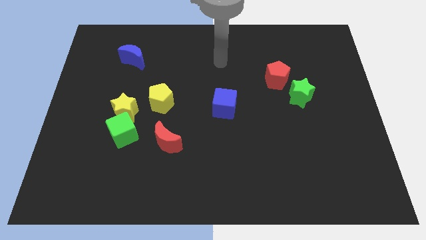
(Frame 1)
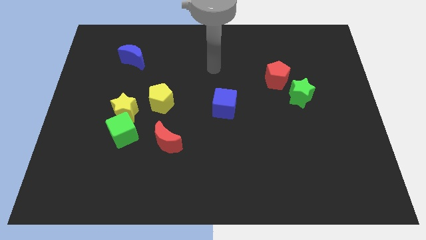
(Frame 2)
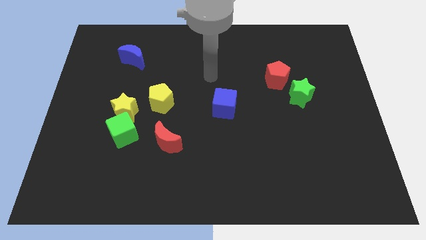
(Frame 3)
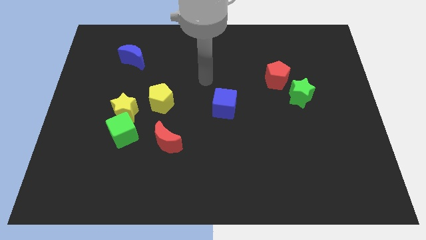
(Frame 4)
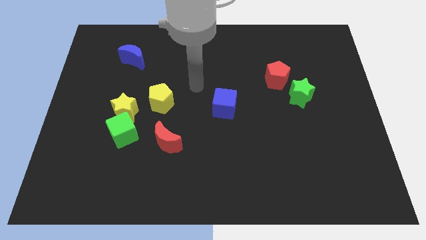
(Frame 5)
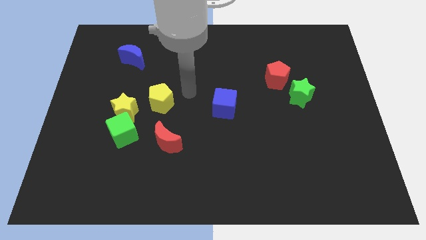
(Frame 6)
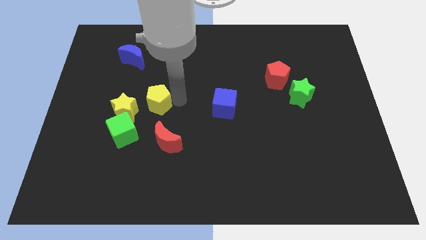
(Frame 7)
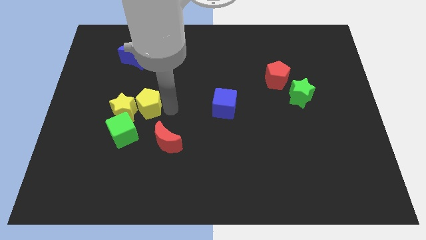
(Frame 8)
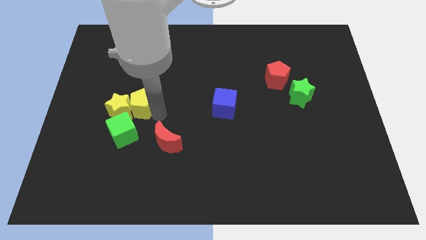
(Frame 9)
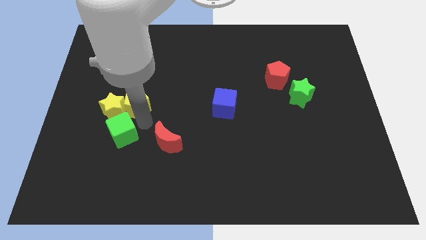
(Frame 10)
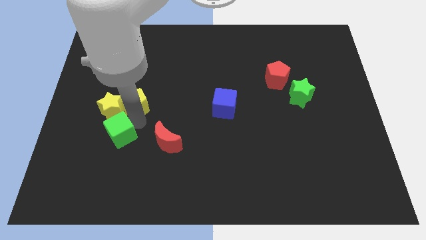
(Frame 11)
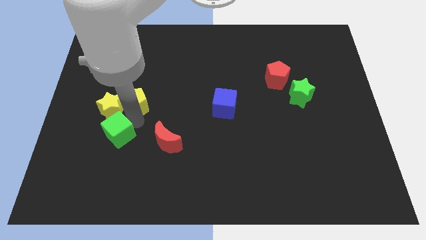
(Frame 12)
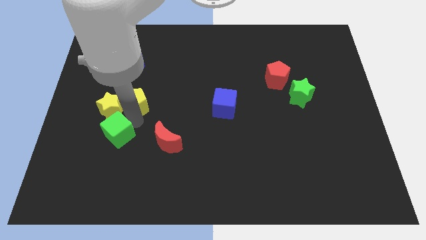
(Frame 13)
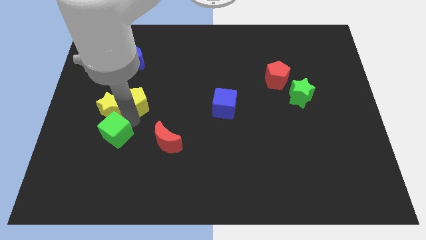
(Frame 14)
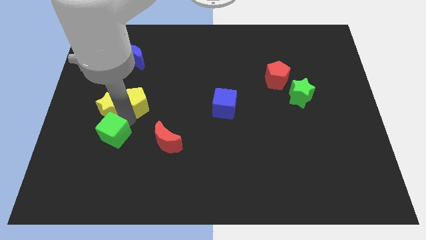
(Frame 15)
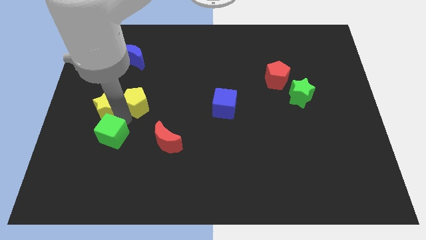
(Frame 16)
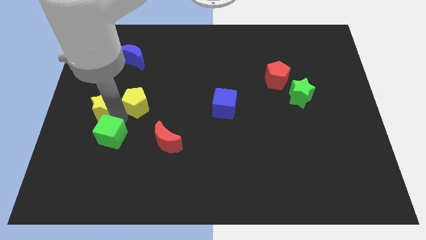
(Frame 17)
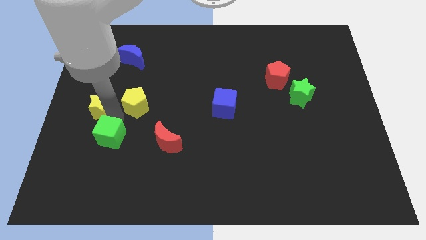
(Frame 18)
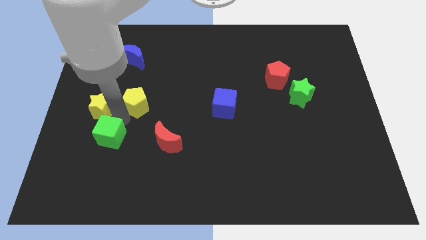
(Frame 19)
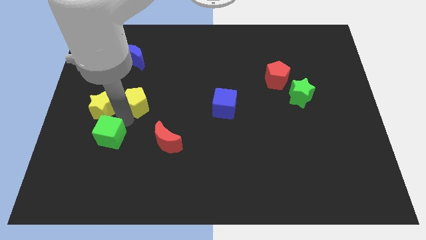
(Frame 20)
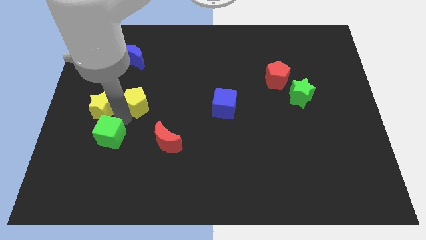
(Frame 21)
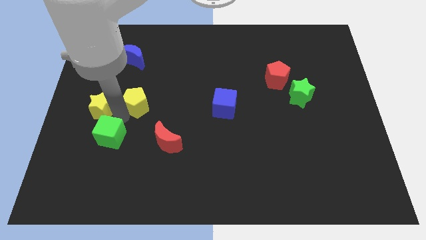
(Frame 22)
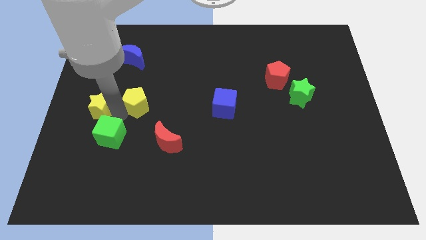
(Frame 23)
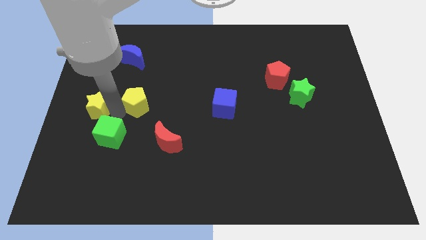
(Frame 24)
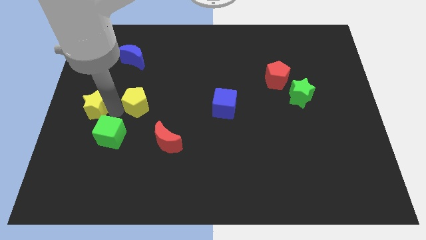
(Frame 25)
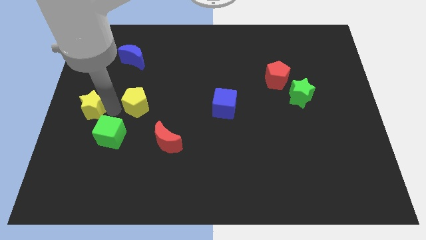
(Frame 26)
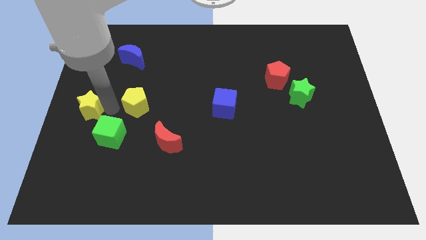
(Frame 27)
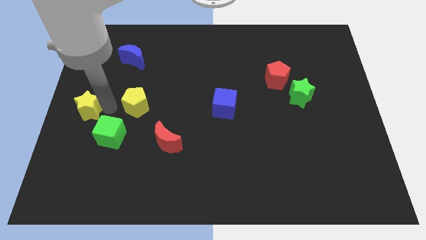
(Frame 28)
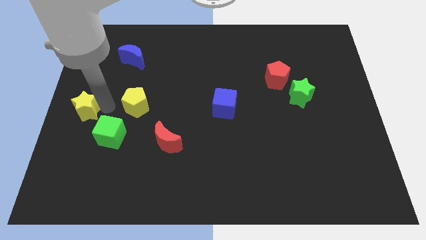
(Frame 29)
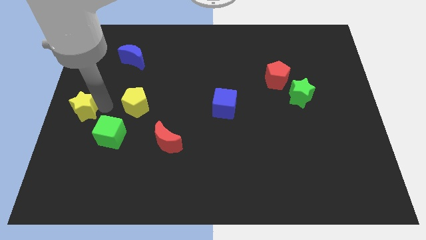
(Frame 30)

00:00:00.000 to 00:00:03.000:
separate the yellow star from the green cube and yellow pentagon

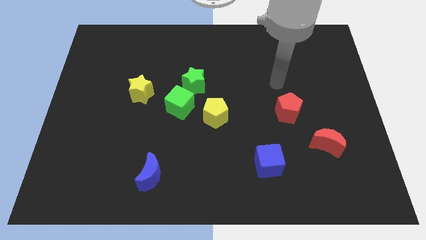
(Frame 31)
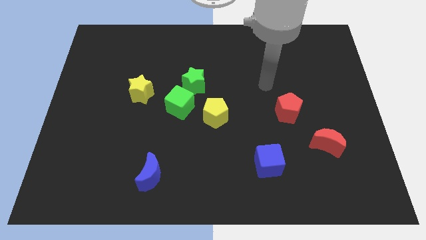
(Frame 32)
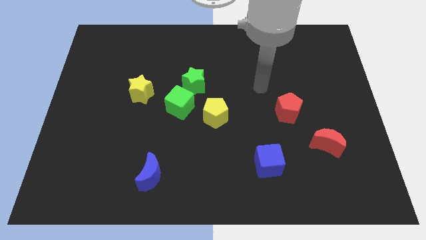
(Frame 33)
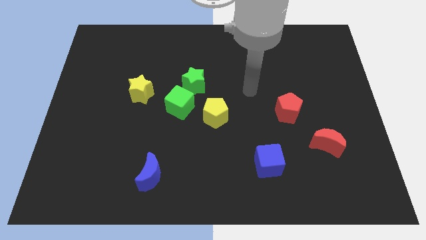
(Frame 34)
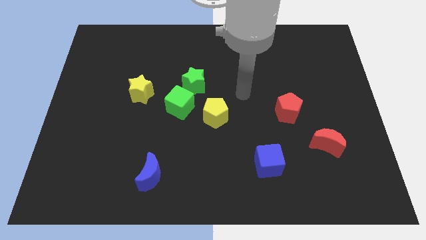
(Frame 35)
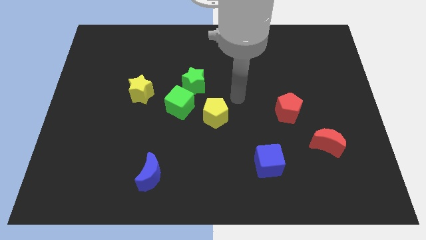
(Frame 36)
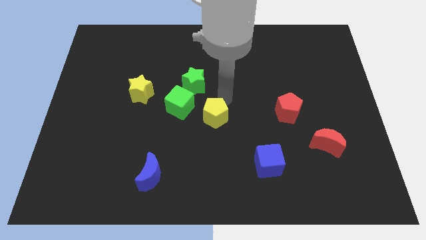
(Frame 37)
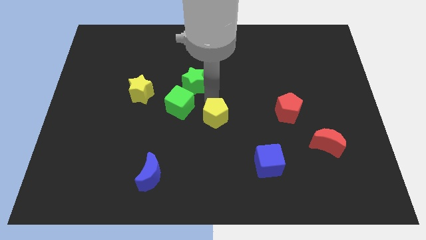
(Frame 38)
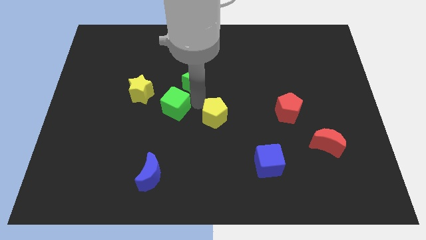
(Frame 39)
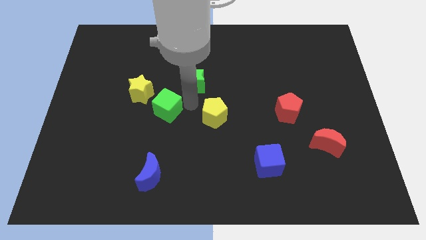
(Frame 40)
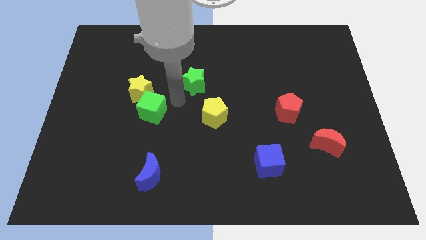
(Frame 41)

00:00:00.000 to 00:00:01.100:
pull the green star apart from the green cube

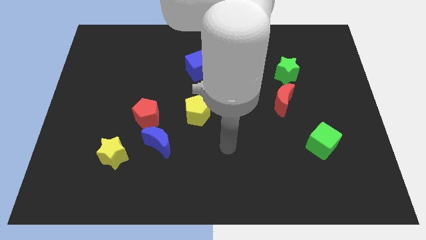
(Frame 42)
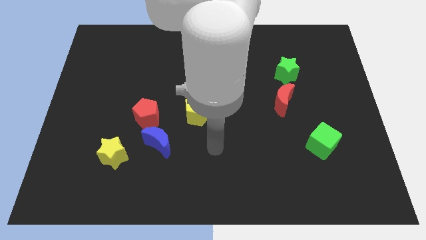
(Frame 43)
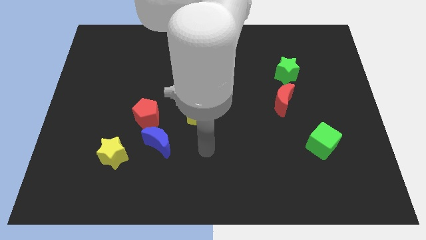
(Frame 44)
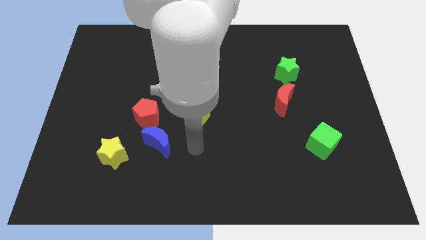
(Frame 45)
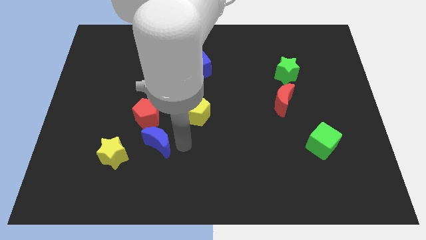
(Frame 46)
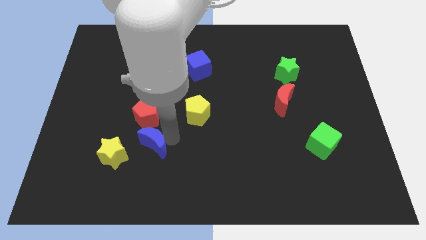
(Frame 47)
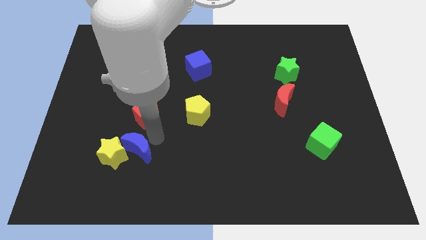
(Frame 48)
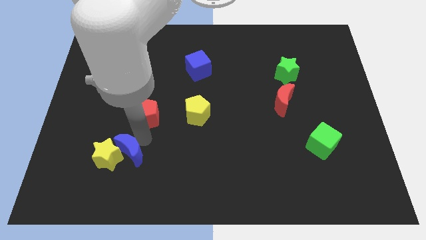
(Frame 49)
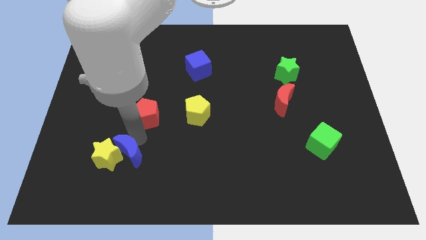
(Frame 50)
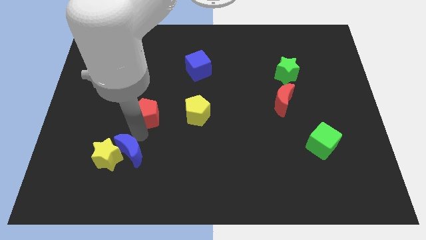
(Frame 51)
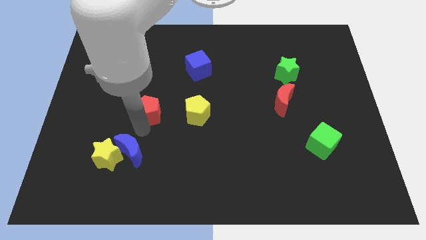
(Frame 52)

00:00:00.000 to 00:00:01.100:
pull the red pentagon apart from the blue moon

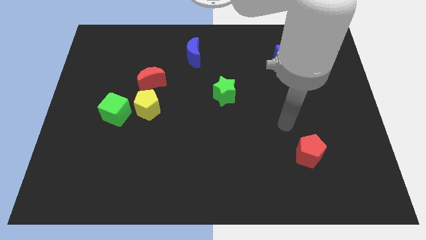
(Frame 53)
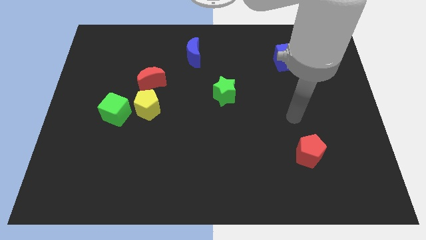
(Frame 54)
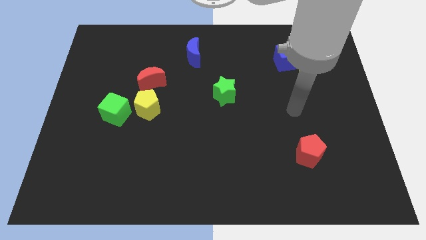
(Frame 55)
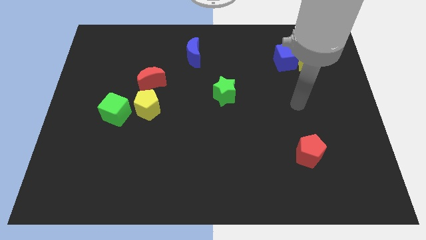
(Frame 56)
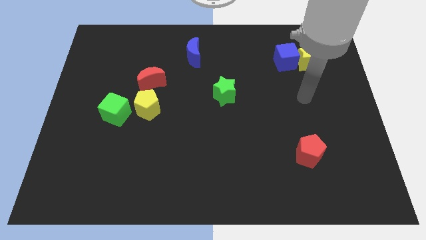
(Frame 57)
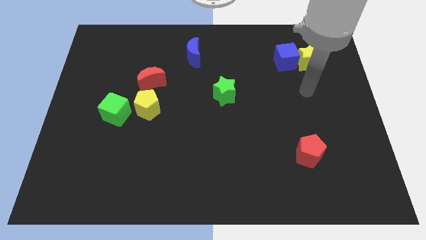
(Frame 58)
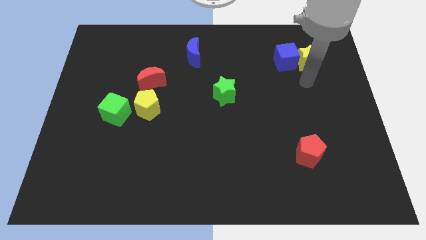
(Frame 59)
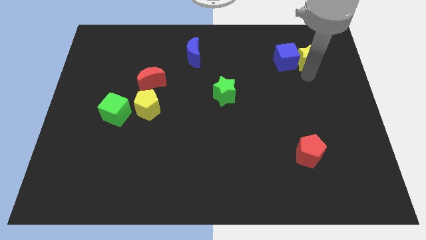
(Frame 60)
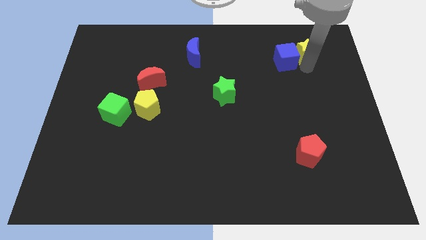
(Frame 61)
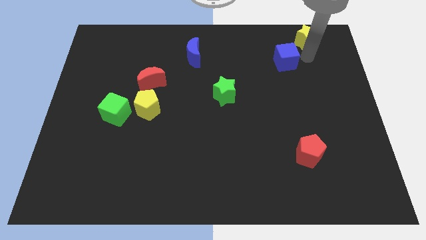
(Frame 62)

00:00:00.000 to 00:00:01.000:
move the blue cube away from the yellow star

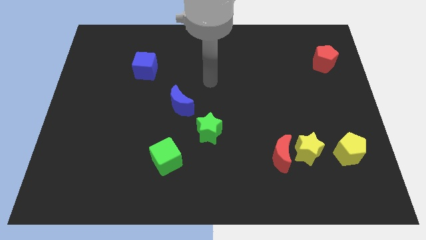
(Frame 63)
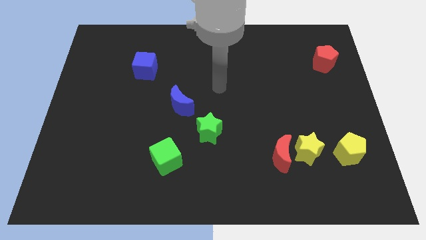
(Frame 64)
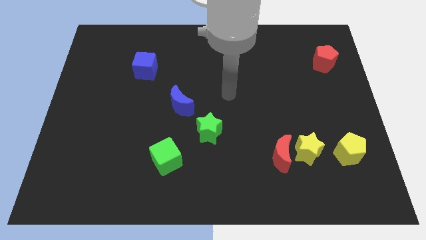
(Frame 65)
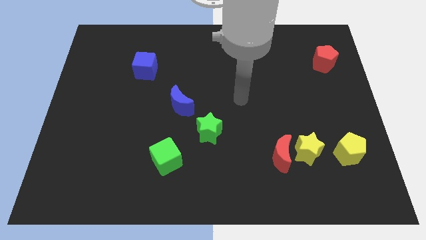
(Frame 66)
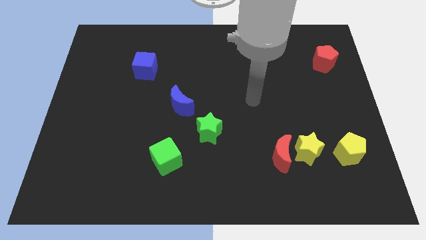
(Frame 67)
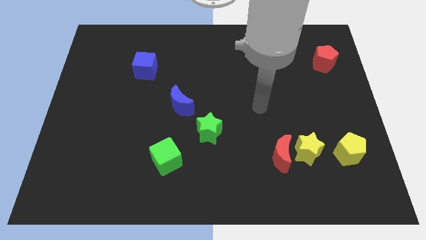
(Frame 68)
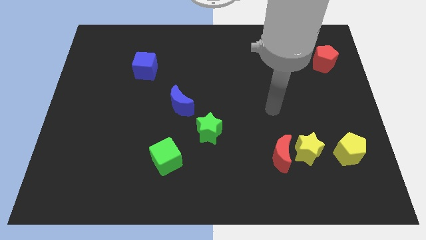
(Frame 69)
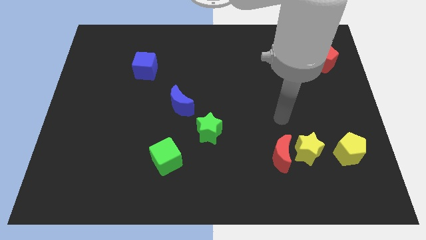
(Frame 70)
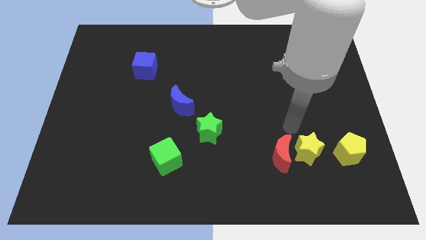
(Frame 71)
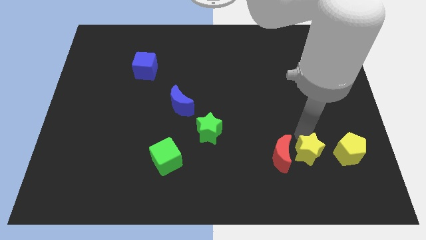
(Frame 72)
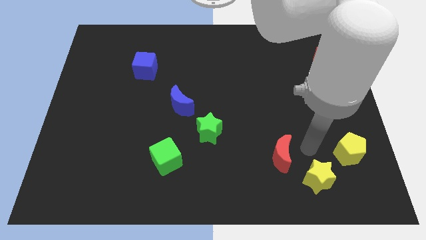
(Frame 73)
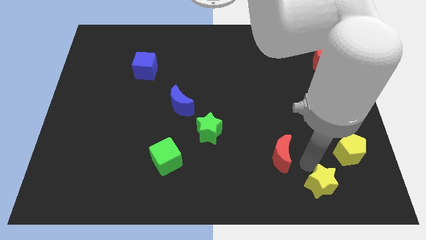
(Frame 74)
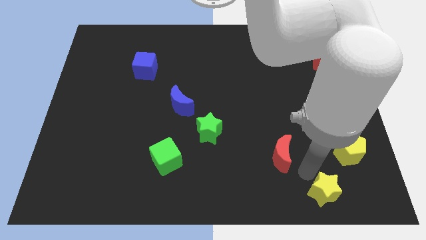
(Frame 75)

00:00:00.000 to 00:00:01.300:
pull the red moon apart from the yellow star

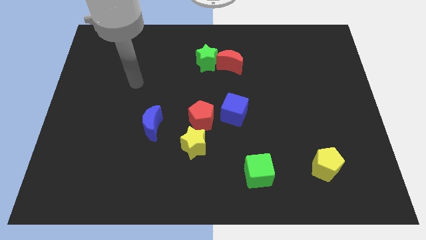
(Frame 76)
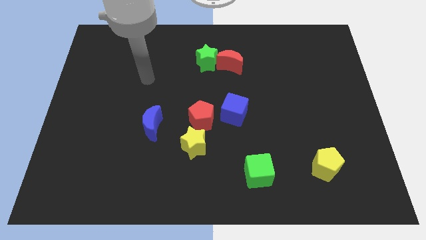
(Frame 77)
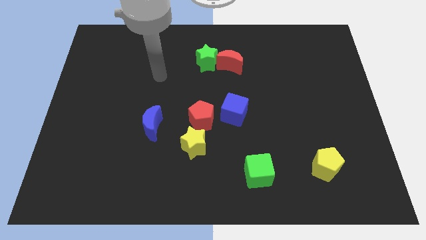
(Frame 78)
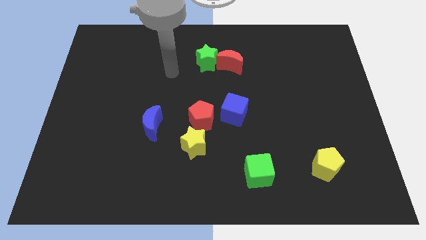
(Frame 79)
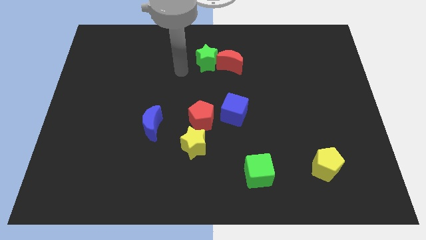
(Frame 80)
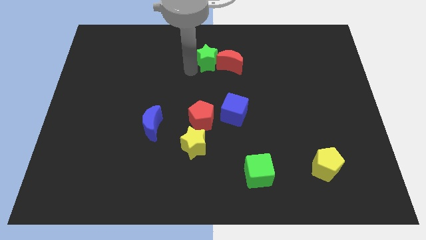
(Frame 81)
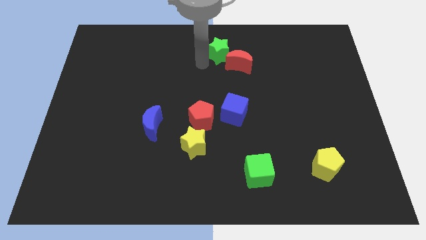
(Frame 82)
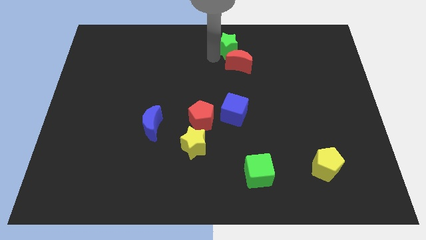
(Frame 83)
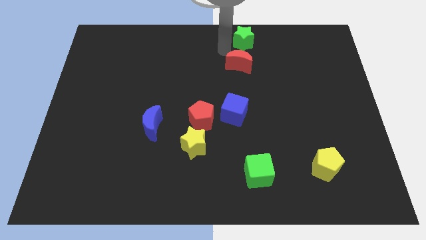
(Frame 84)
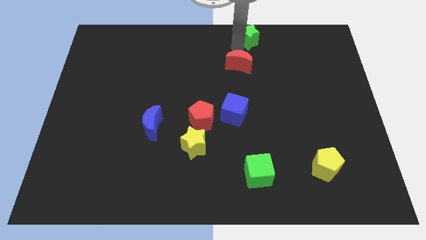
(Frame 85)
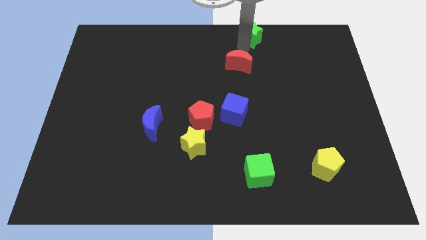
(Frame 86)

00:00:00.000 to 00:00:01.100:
separate the red moon from the green star

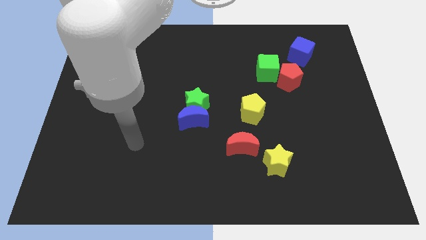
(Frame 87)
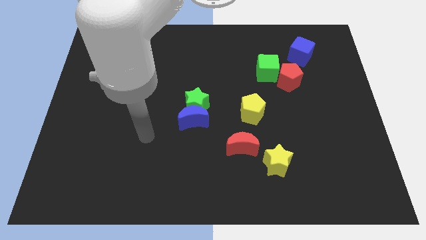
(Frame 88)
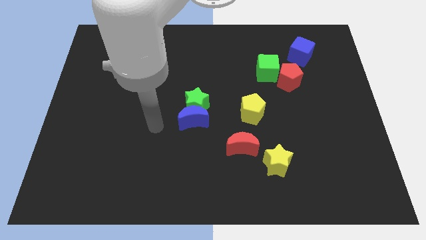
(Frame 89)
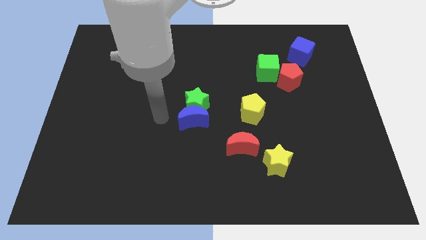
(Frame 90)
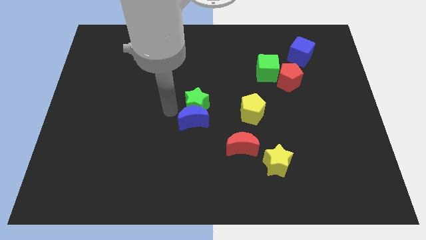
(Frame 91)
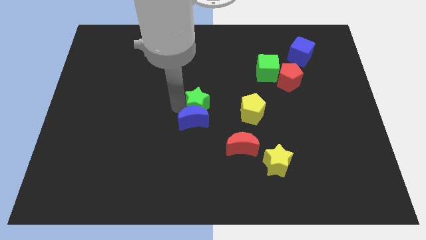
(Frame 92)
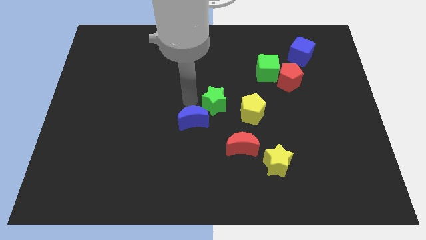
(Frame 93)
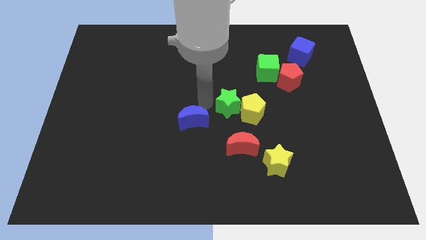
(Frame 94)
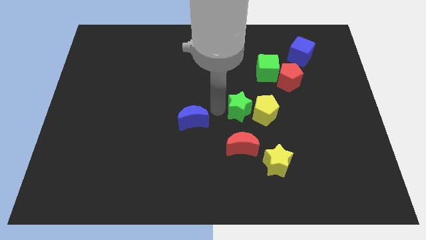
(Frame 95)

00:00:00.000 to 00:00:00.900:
move the blue moon away from the green star
